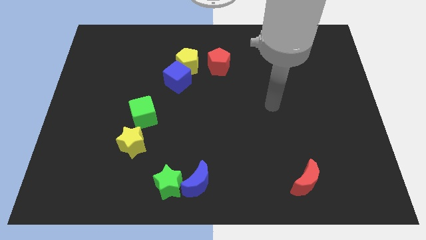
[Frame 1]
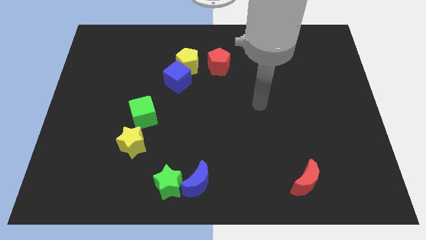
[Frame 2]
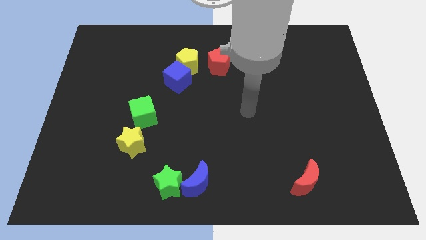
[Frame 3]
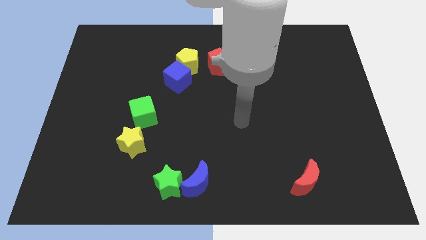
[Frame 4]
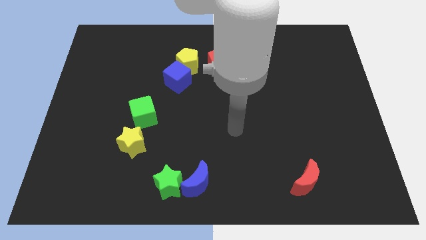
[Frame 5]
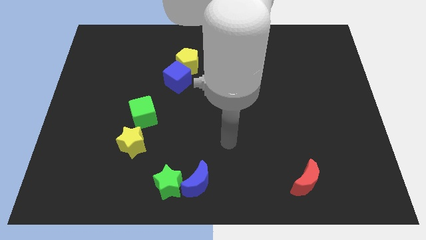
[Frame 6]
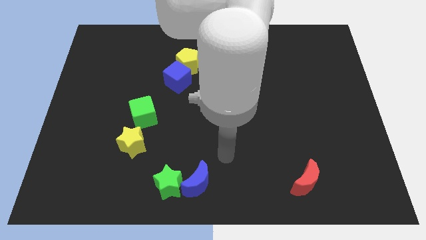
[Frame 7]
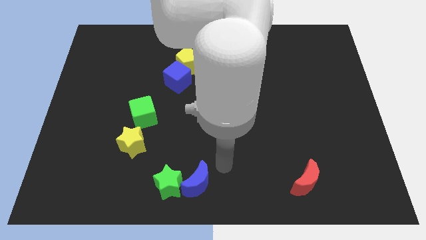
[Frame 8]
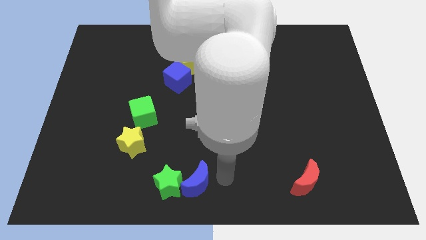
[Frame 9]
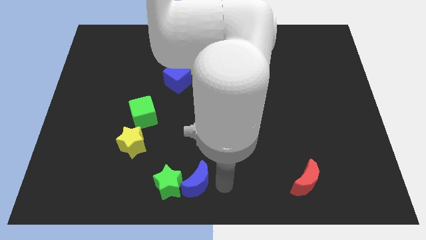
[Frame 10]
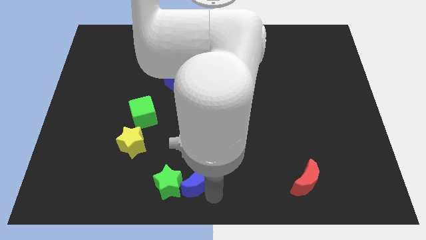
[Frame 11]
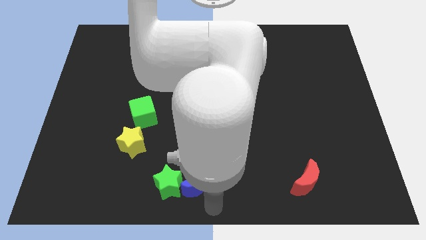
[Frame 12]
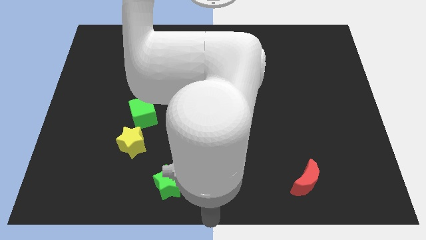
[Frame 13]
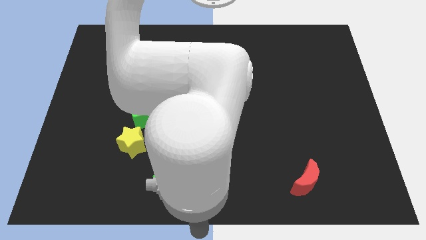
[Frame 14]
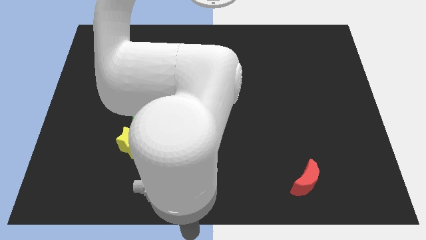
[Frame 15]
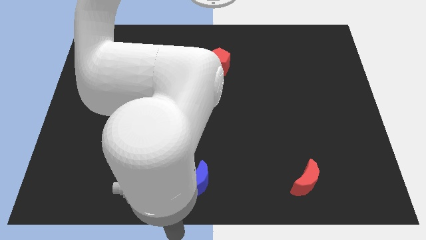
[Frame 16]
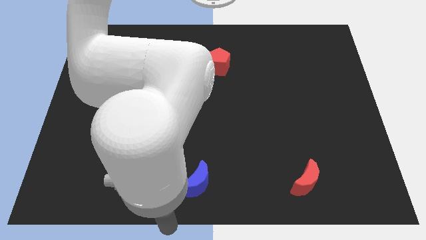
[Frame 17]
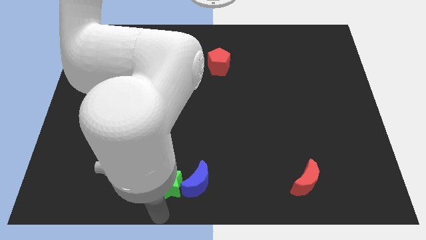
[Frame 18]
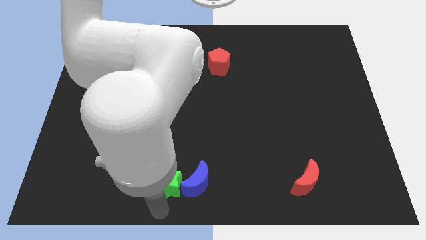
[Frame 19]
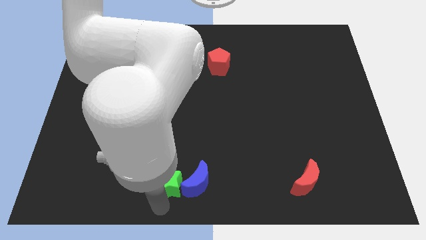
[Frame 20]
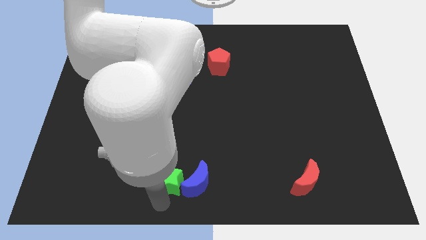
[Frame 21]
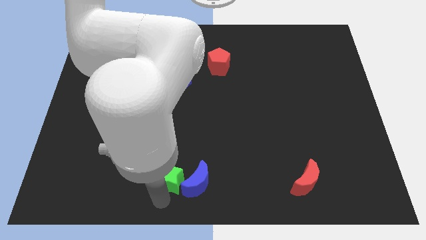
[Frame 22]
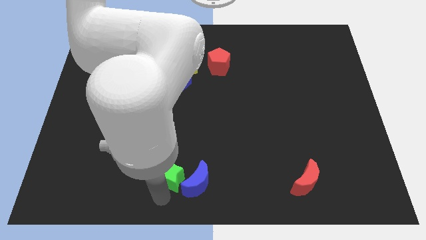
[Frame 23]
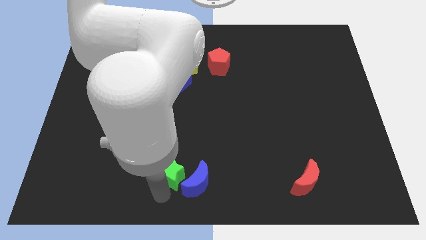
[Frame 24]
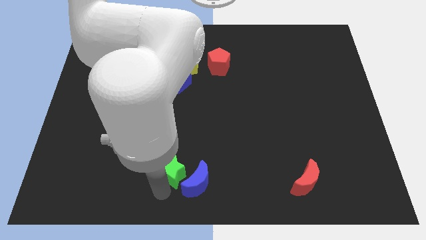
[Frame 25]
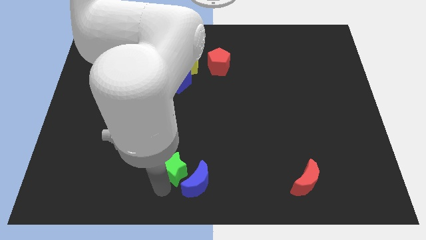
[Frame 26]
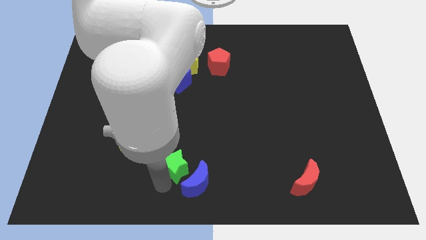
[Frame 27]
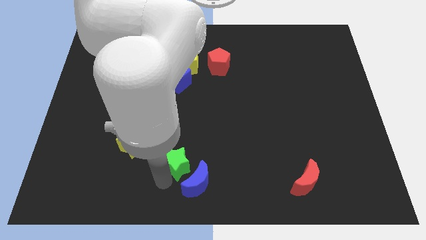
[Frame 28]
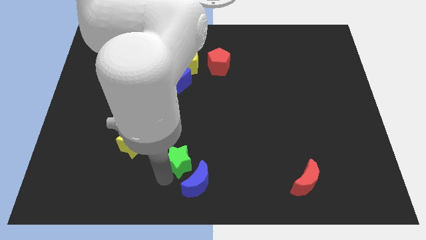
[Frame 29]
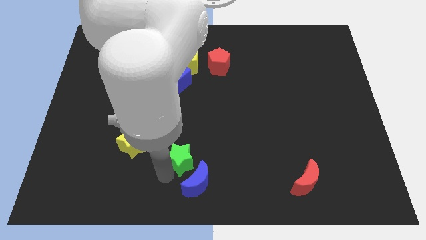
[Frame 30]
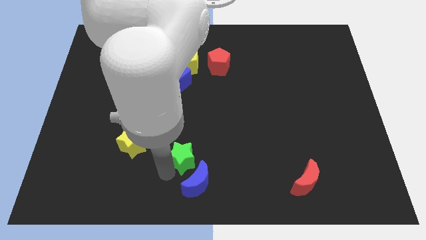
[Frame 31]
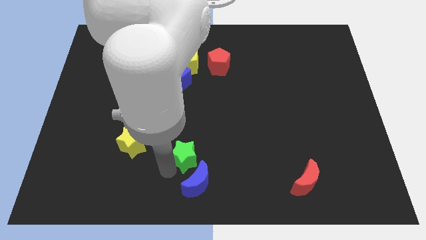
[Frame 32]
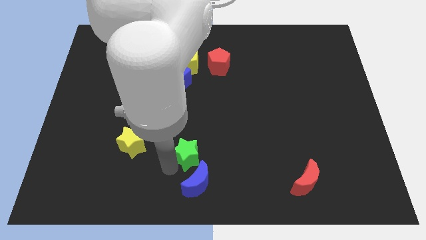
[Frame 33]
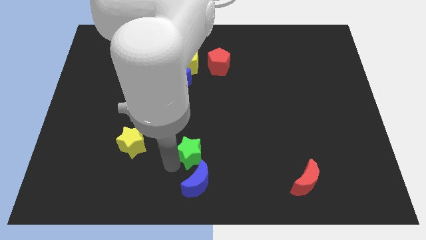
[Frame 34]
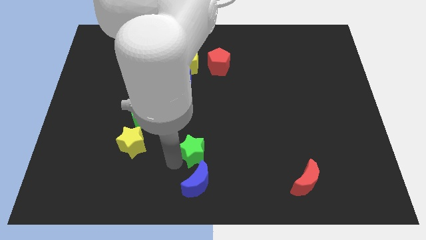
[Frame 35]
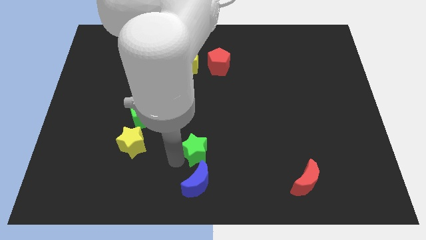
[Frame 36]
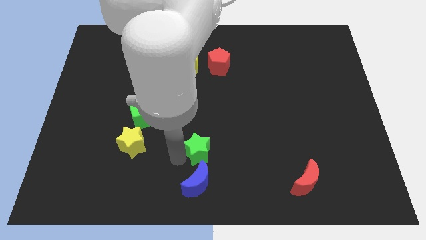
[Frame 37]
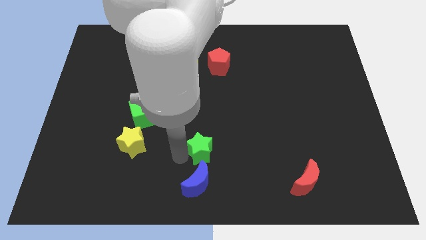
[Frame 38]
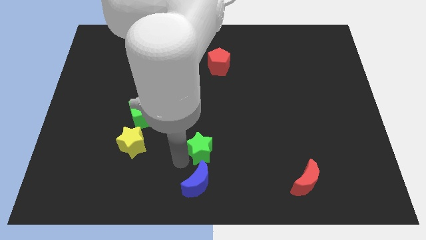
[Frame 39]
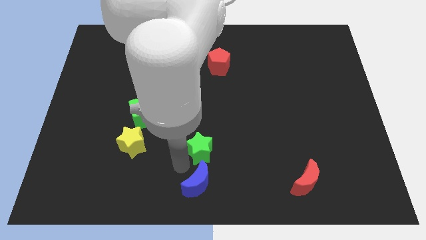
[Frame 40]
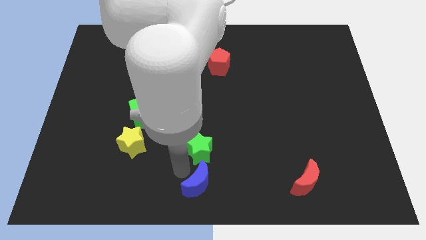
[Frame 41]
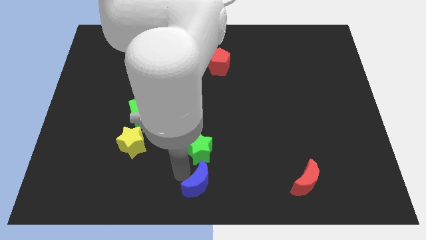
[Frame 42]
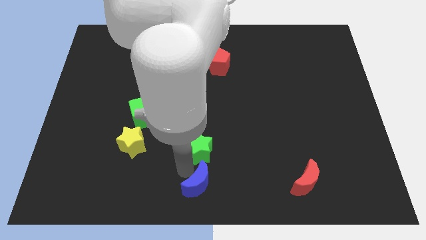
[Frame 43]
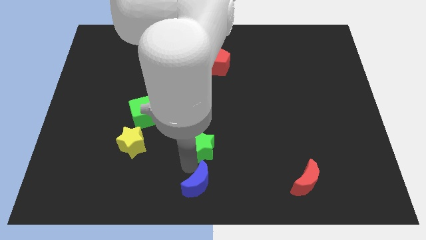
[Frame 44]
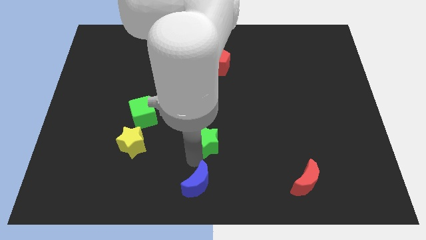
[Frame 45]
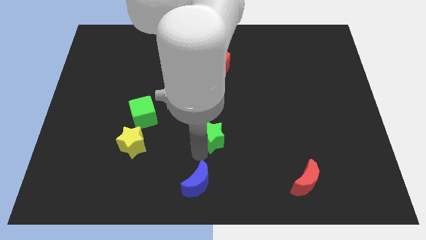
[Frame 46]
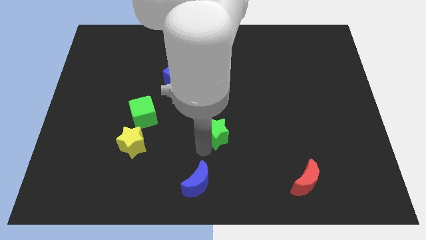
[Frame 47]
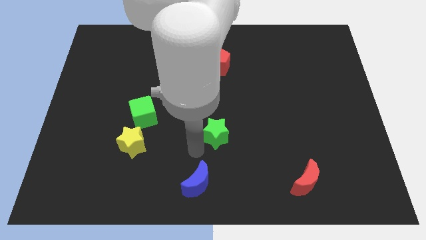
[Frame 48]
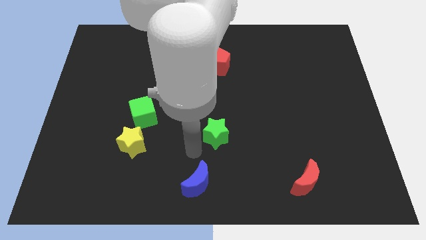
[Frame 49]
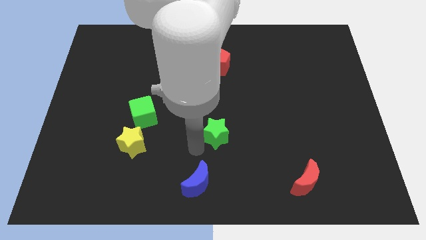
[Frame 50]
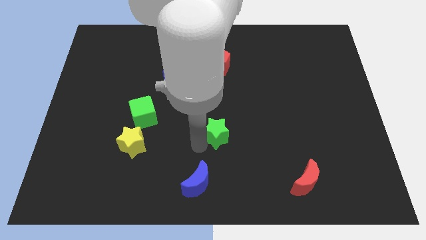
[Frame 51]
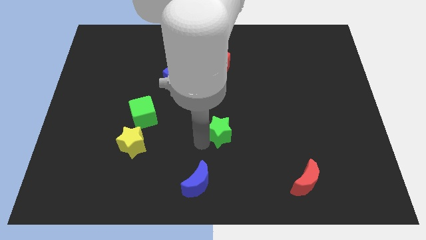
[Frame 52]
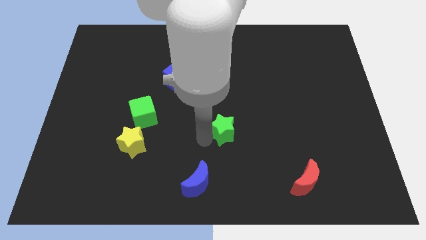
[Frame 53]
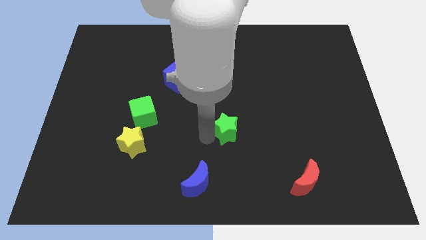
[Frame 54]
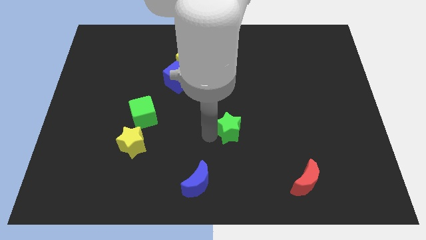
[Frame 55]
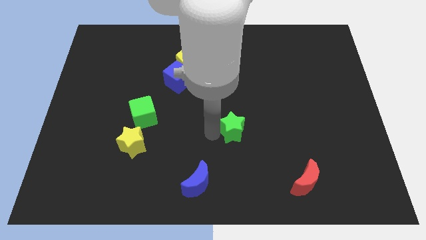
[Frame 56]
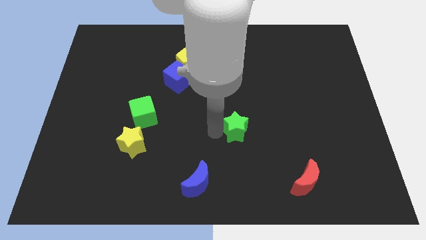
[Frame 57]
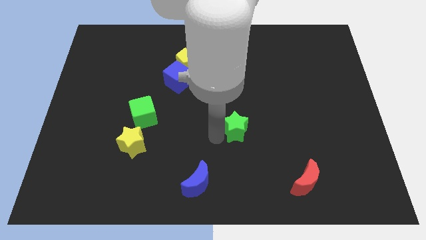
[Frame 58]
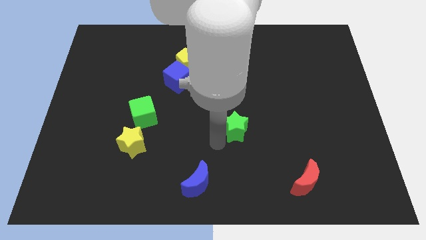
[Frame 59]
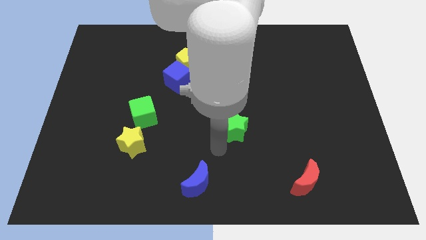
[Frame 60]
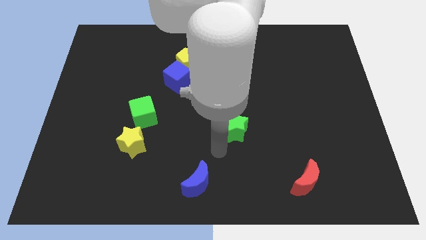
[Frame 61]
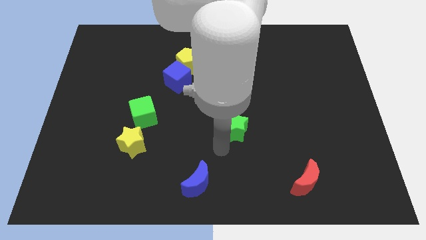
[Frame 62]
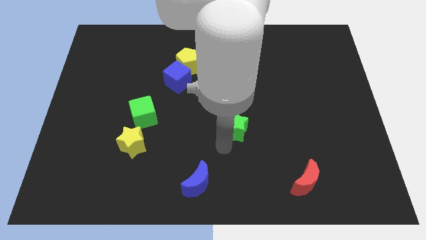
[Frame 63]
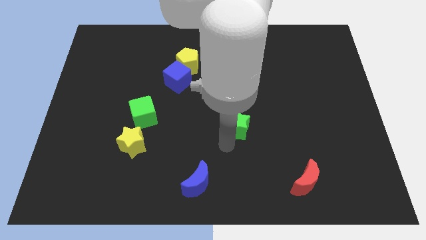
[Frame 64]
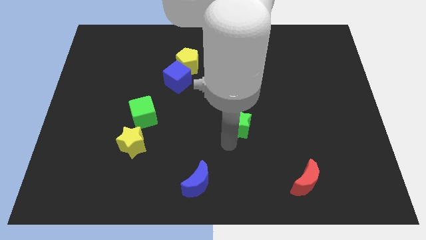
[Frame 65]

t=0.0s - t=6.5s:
push the green star up and then right

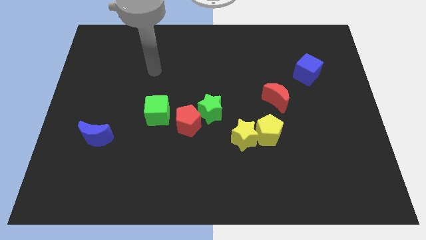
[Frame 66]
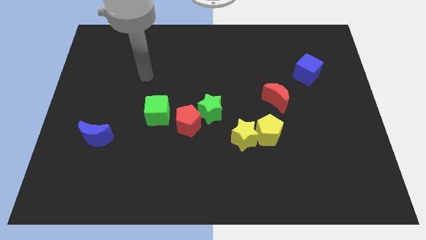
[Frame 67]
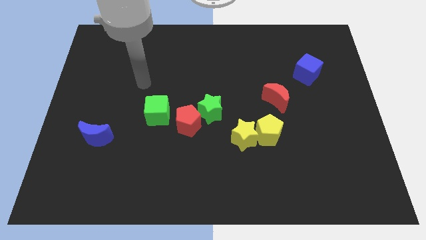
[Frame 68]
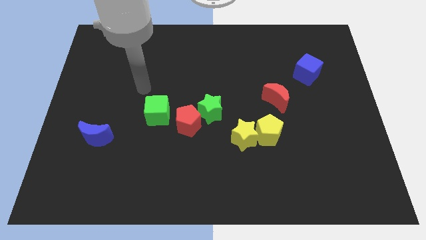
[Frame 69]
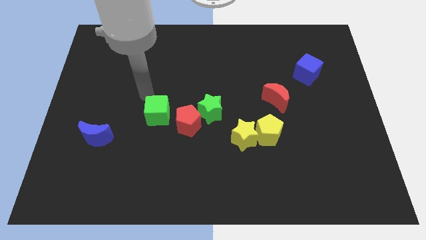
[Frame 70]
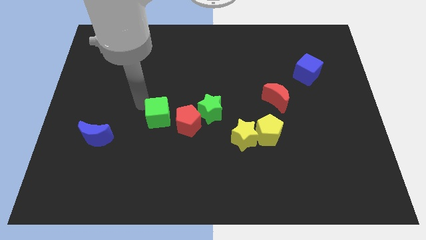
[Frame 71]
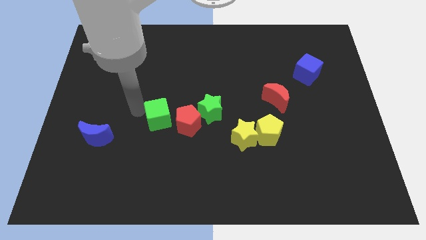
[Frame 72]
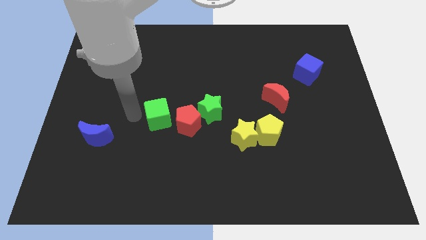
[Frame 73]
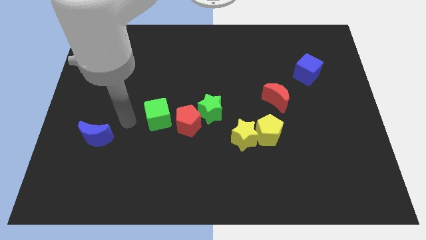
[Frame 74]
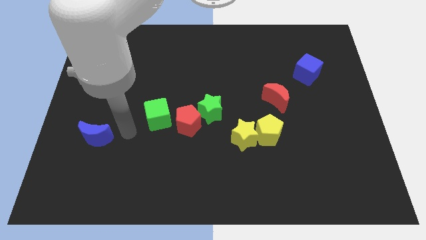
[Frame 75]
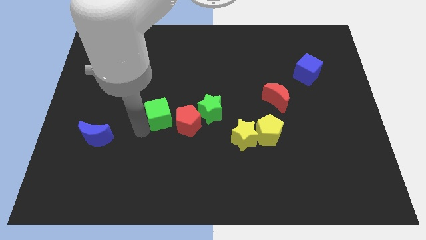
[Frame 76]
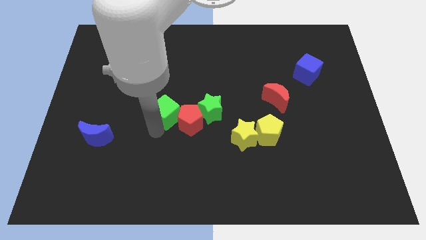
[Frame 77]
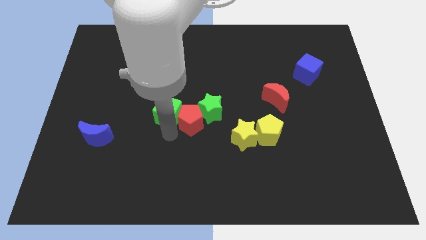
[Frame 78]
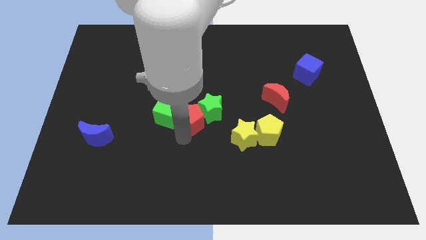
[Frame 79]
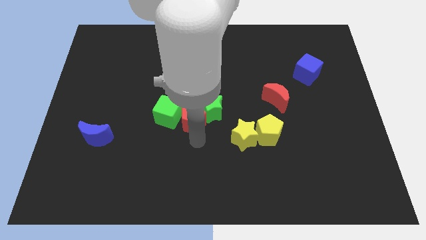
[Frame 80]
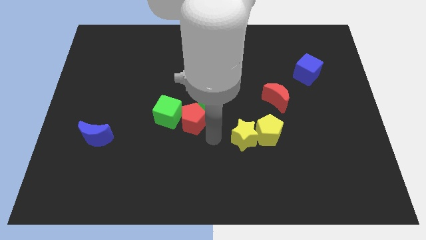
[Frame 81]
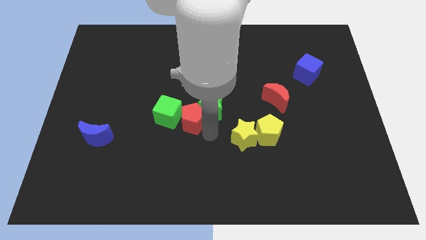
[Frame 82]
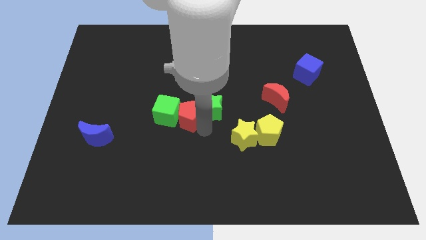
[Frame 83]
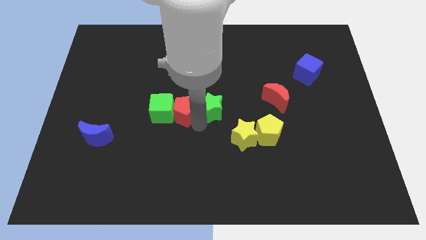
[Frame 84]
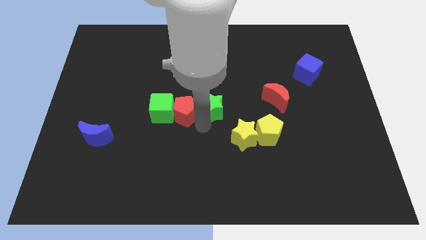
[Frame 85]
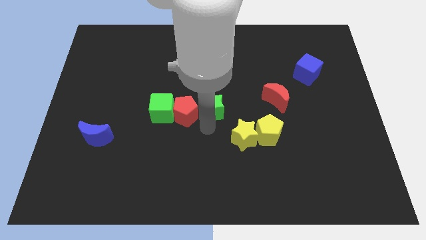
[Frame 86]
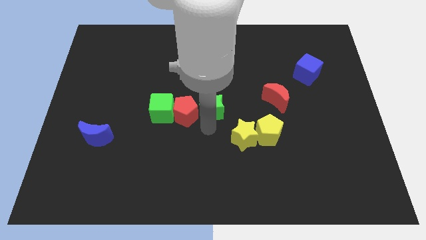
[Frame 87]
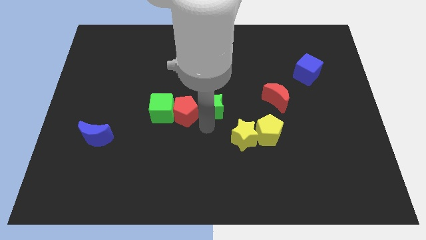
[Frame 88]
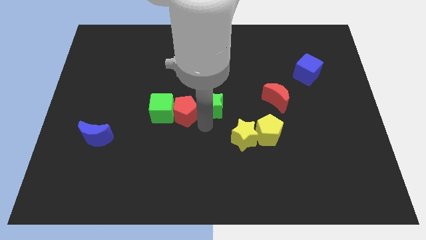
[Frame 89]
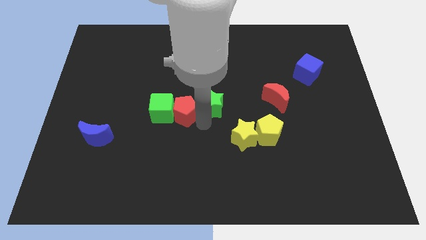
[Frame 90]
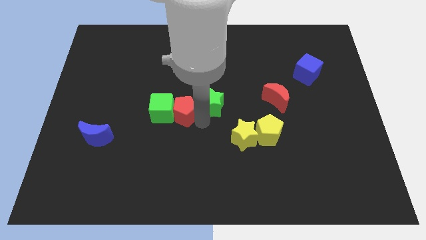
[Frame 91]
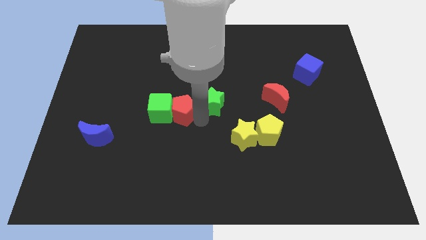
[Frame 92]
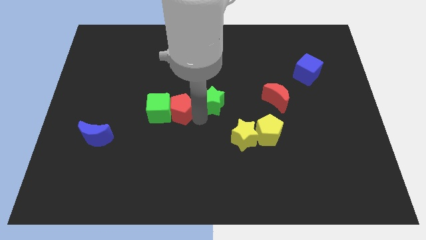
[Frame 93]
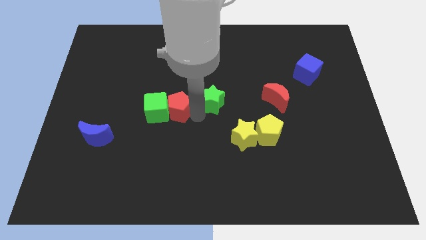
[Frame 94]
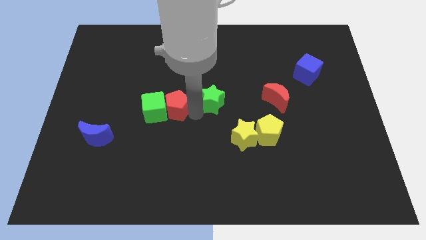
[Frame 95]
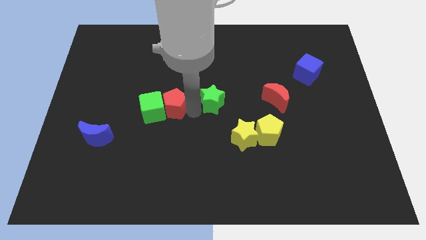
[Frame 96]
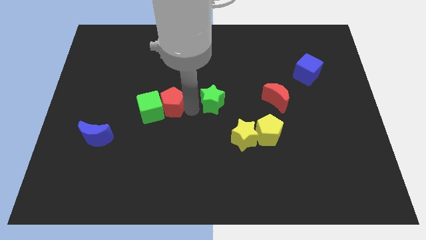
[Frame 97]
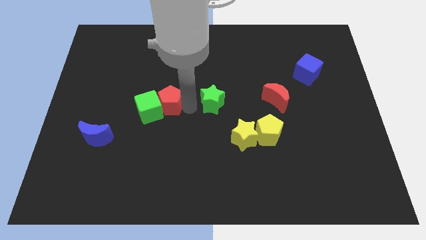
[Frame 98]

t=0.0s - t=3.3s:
slightly move the red pentagon up and to the left diagonally
